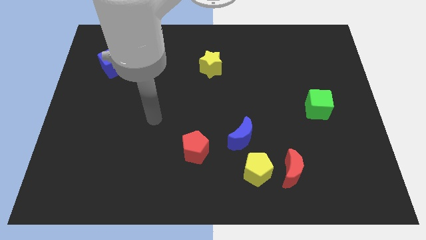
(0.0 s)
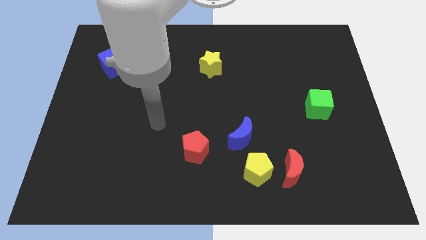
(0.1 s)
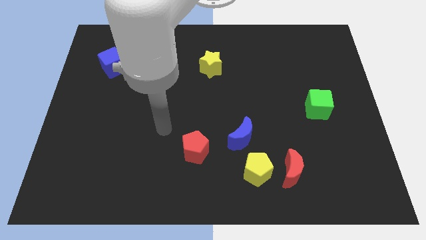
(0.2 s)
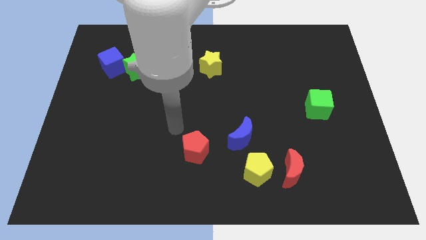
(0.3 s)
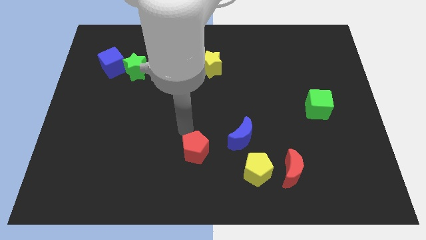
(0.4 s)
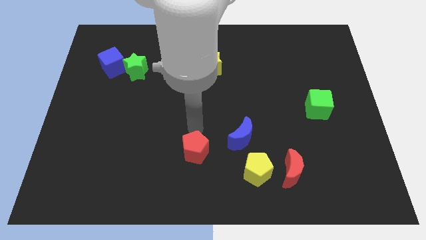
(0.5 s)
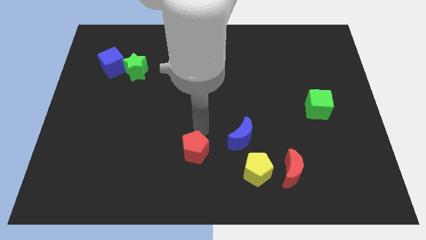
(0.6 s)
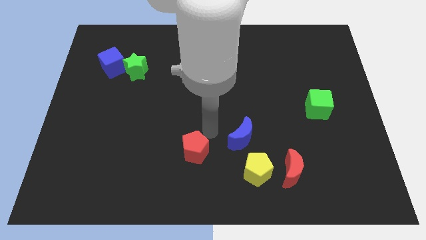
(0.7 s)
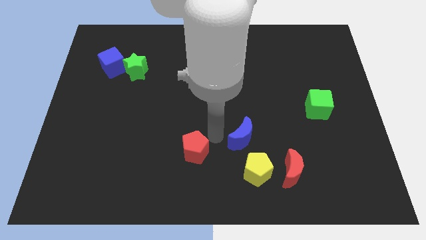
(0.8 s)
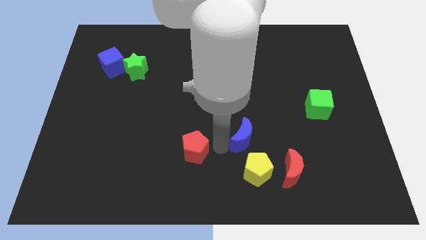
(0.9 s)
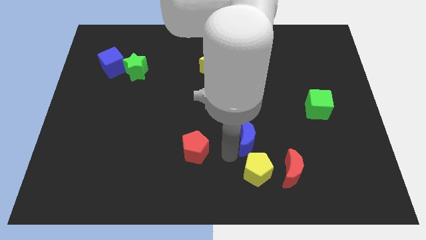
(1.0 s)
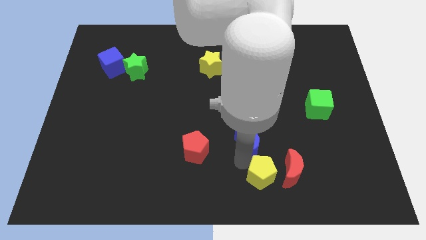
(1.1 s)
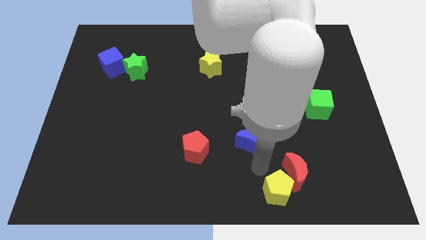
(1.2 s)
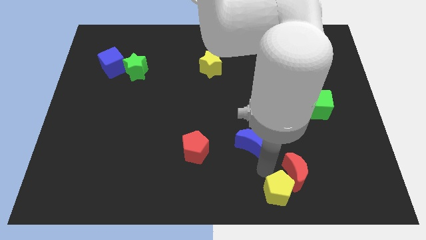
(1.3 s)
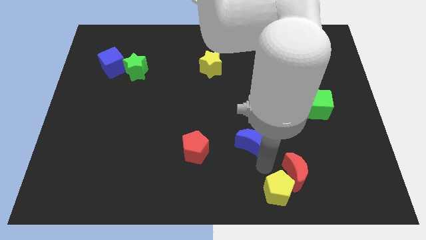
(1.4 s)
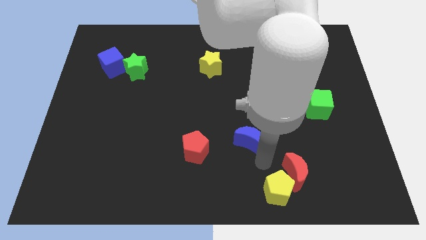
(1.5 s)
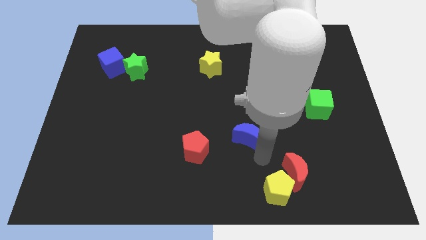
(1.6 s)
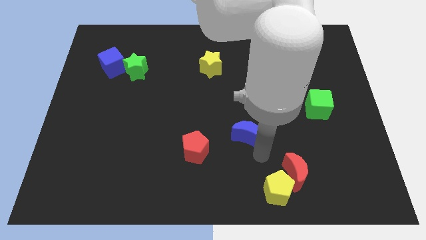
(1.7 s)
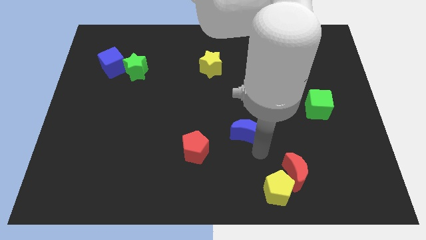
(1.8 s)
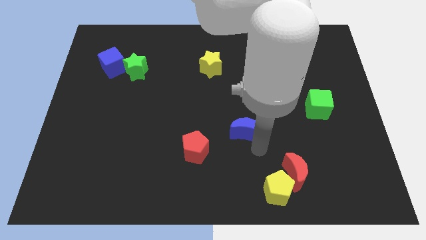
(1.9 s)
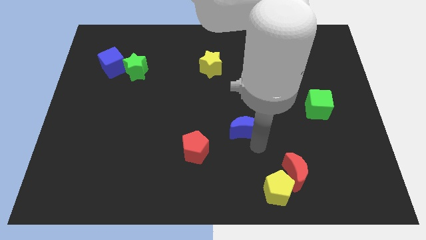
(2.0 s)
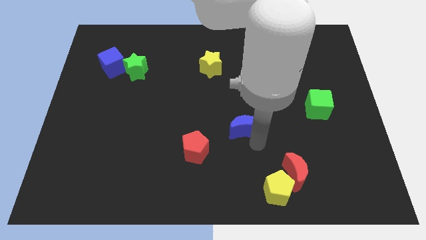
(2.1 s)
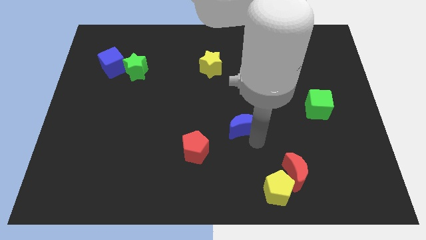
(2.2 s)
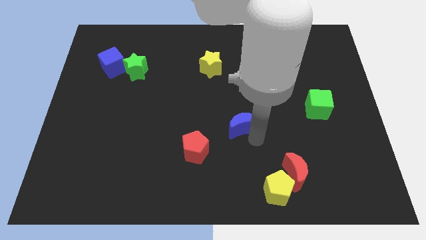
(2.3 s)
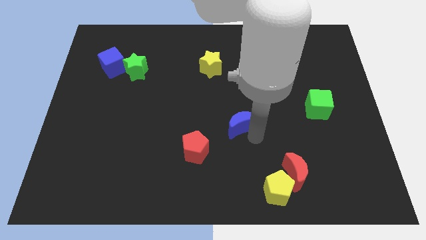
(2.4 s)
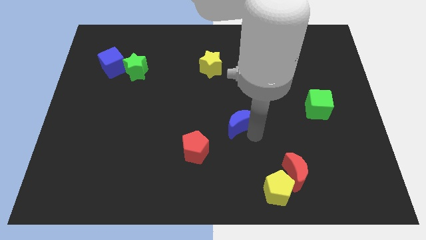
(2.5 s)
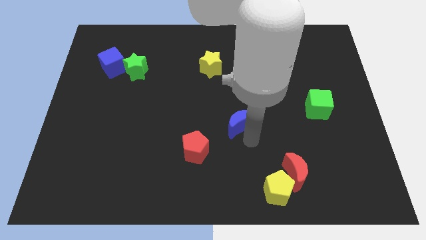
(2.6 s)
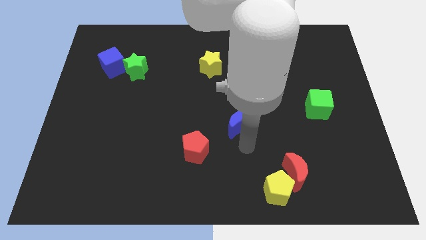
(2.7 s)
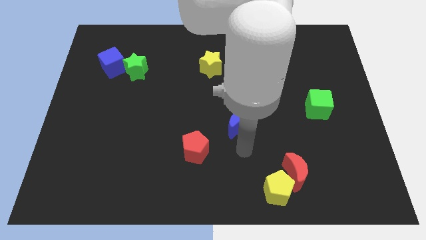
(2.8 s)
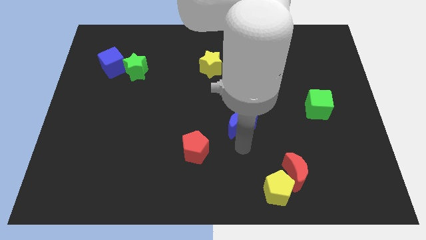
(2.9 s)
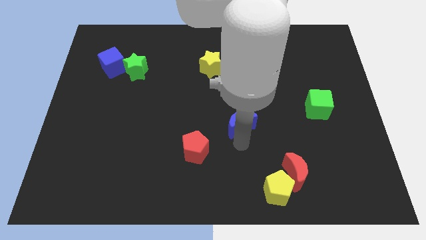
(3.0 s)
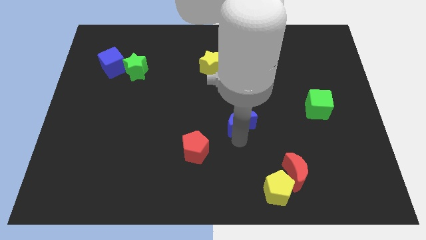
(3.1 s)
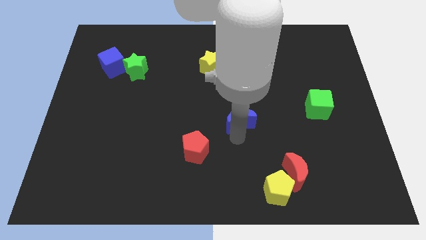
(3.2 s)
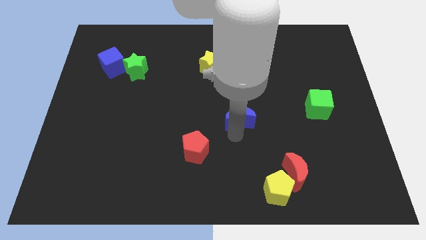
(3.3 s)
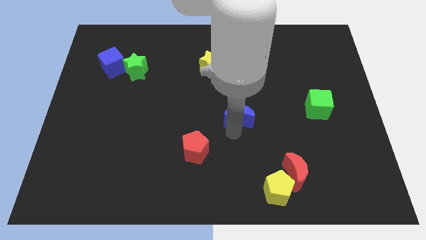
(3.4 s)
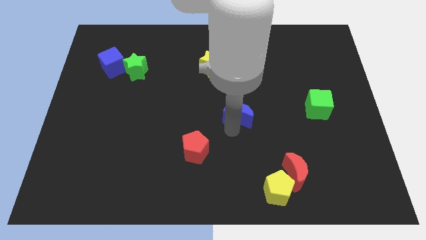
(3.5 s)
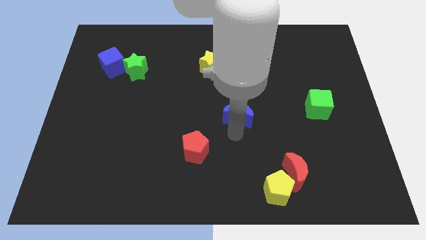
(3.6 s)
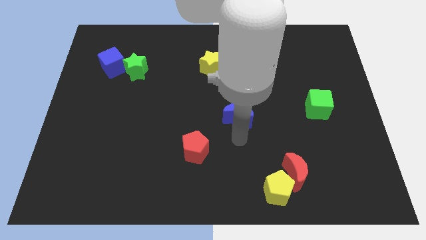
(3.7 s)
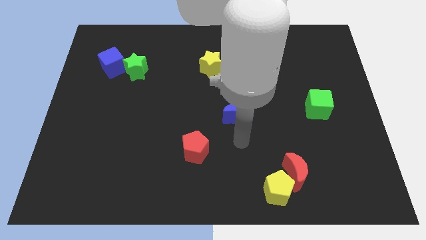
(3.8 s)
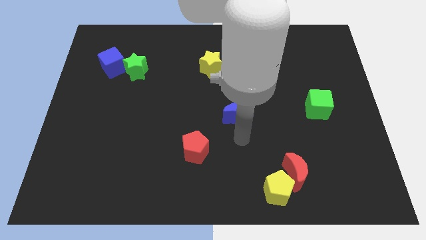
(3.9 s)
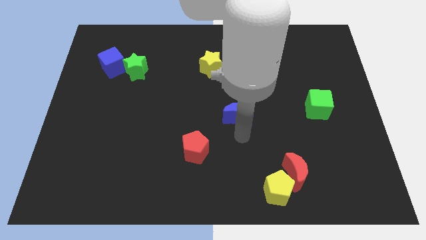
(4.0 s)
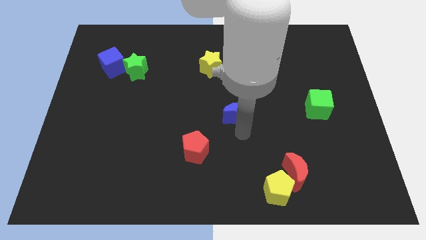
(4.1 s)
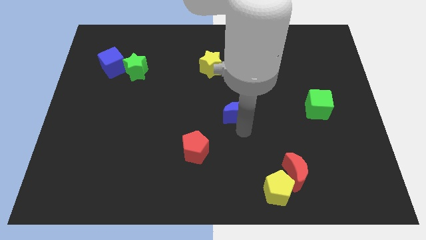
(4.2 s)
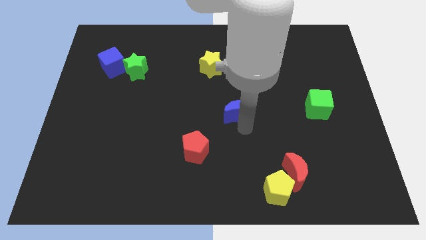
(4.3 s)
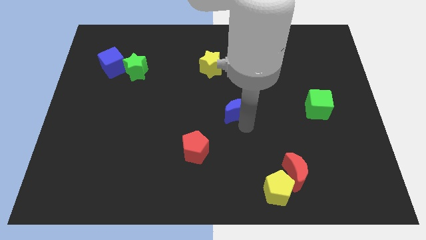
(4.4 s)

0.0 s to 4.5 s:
slightly slide the blue moon up

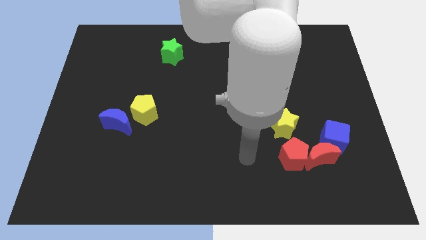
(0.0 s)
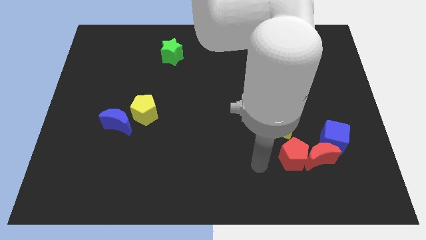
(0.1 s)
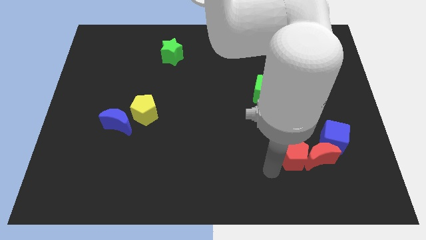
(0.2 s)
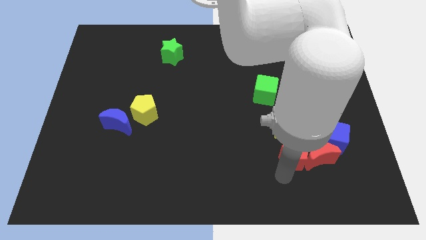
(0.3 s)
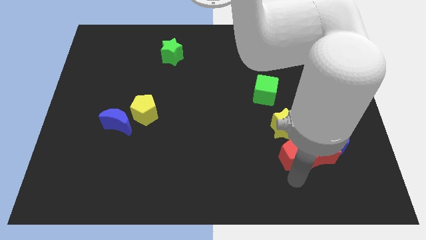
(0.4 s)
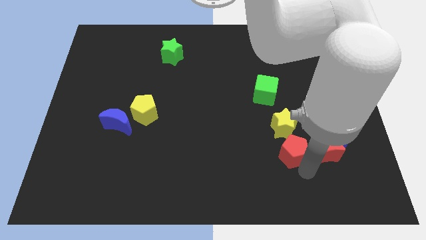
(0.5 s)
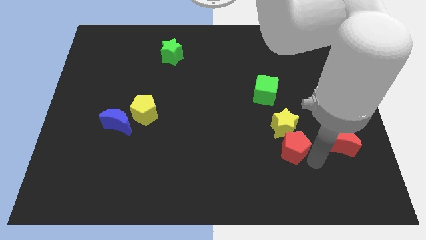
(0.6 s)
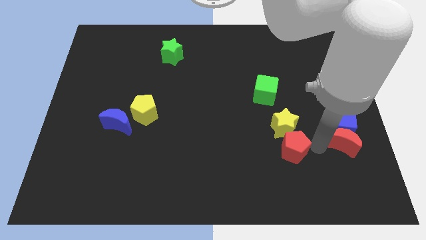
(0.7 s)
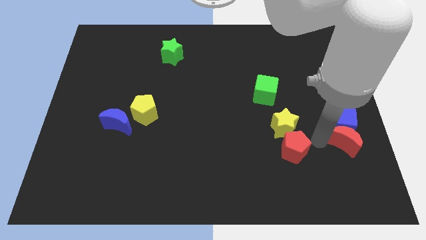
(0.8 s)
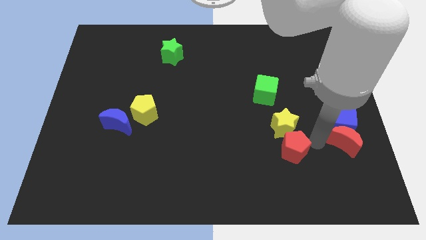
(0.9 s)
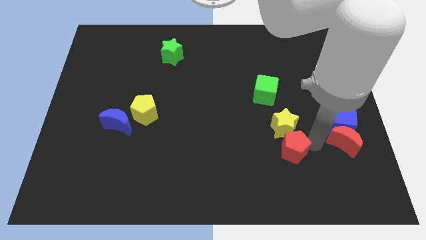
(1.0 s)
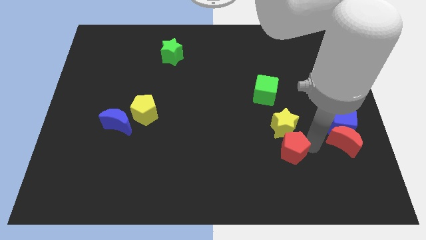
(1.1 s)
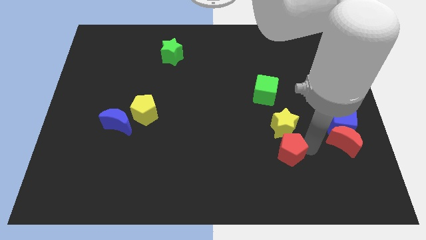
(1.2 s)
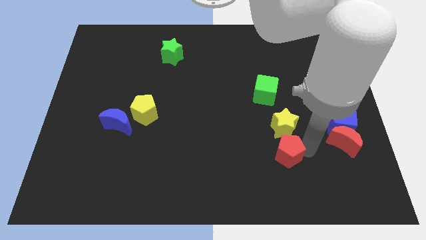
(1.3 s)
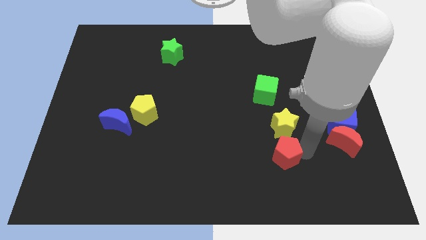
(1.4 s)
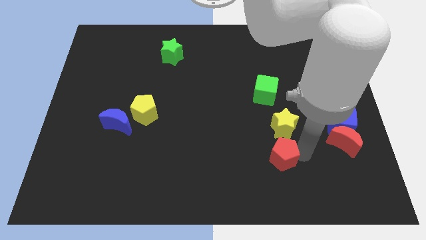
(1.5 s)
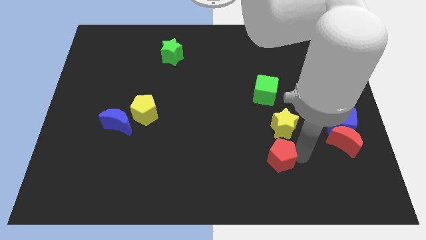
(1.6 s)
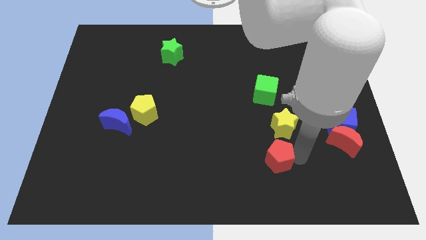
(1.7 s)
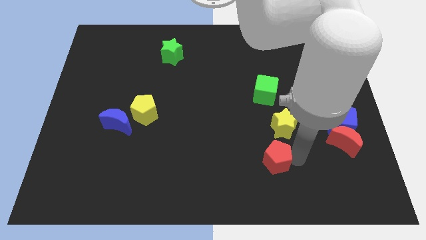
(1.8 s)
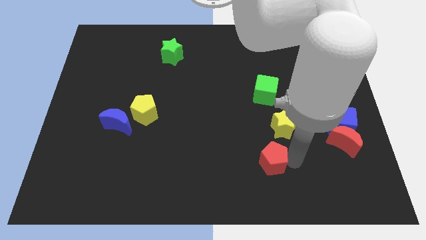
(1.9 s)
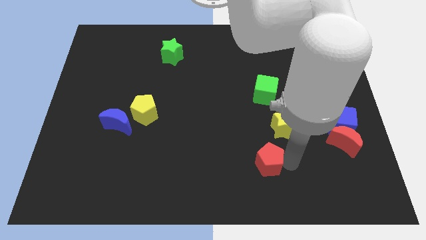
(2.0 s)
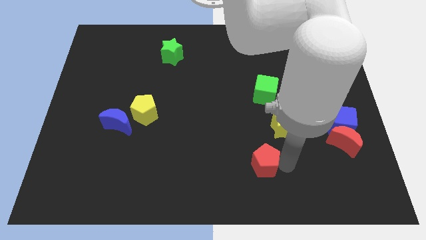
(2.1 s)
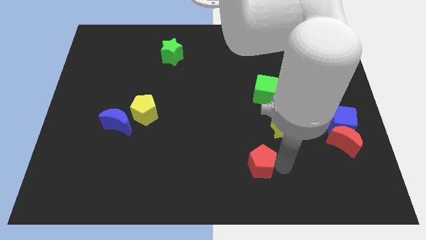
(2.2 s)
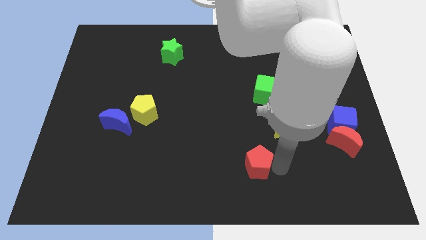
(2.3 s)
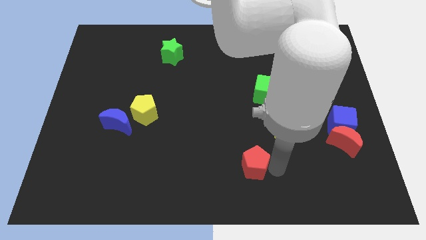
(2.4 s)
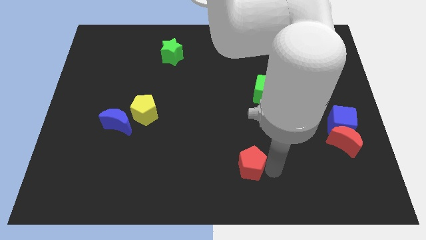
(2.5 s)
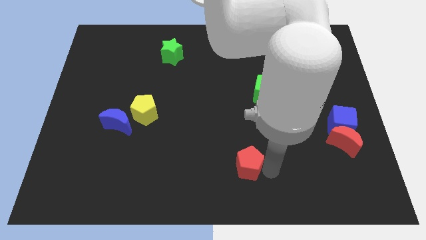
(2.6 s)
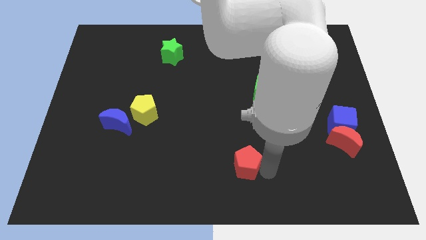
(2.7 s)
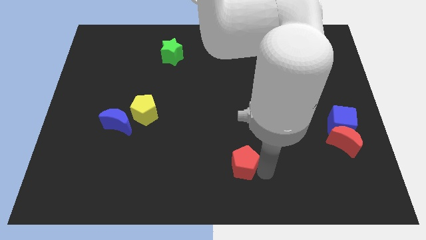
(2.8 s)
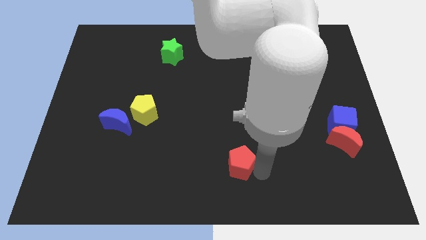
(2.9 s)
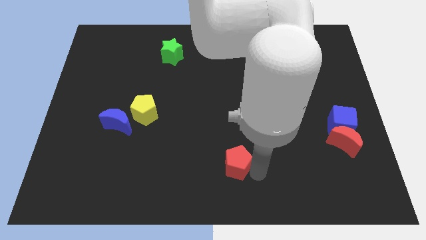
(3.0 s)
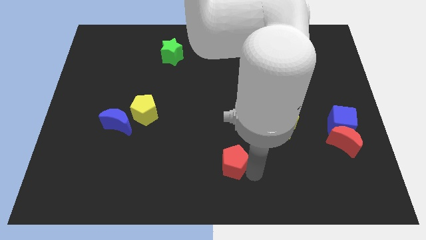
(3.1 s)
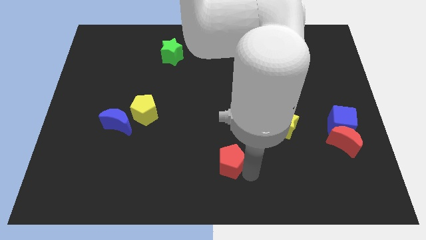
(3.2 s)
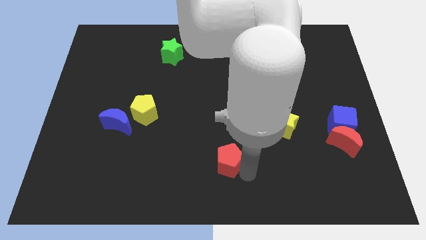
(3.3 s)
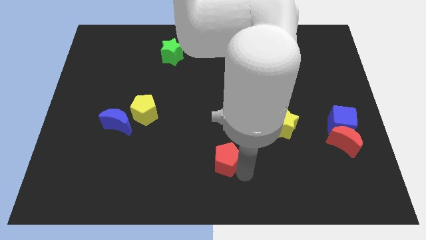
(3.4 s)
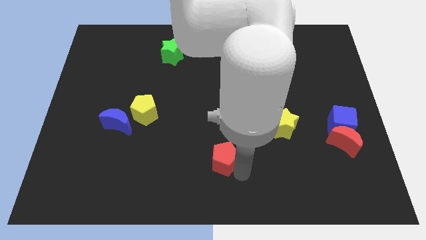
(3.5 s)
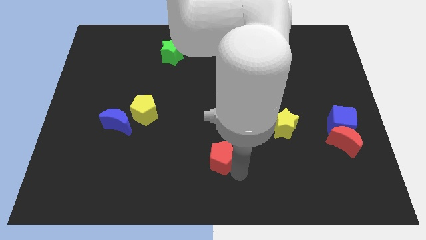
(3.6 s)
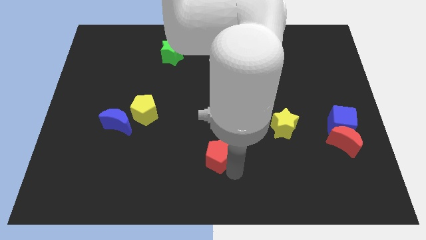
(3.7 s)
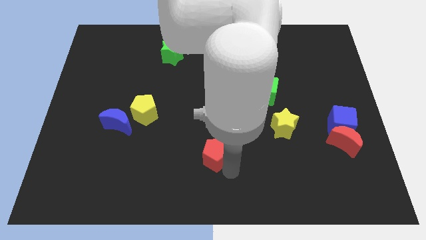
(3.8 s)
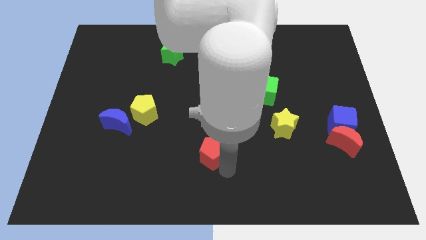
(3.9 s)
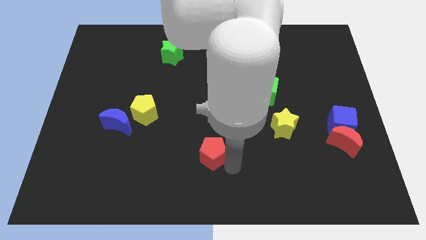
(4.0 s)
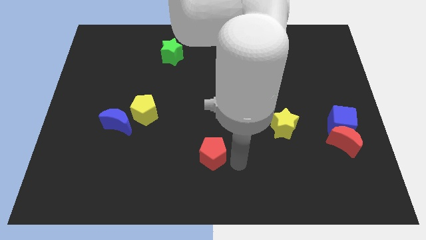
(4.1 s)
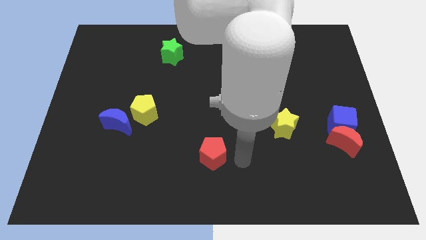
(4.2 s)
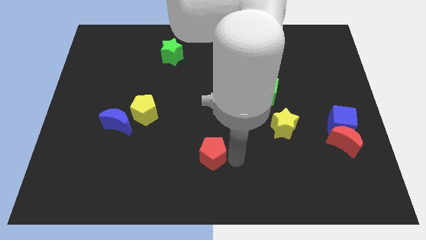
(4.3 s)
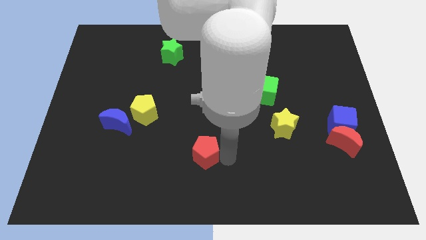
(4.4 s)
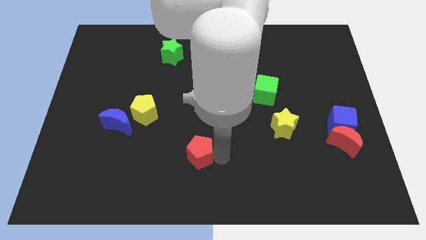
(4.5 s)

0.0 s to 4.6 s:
slide the red pentagon left
